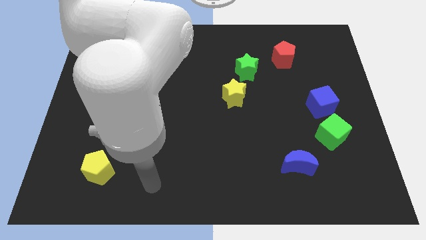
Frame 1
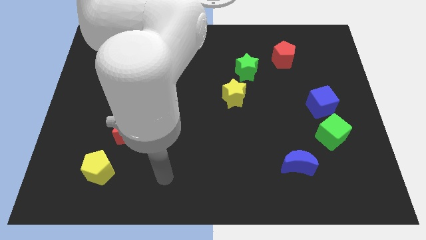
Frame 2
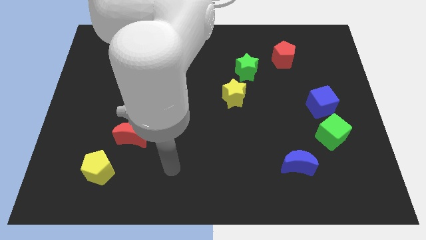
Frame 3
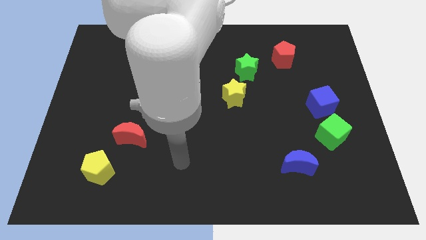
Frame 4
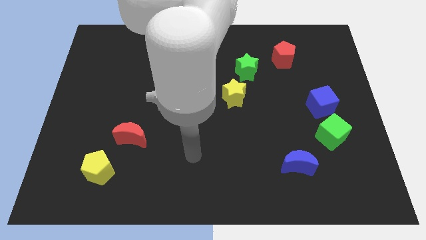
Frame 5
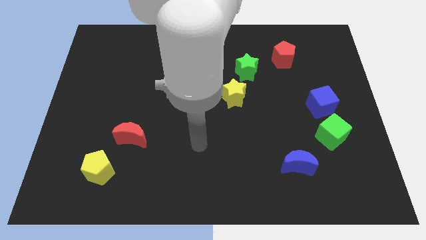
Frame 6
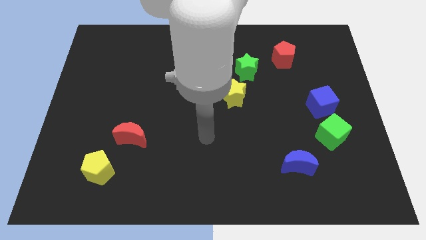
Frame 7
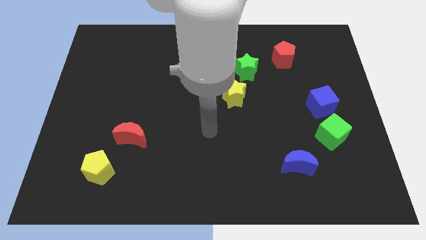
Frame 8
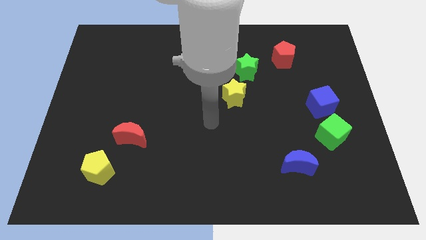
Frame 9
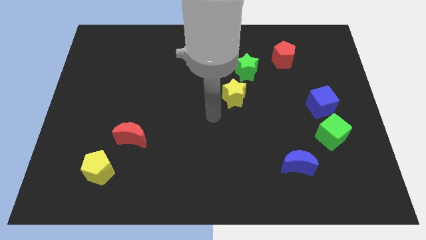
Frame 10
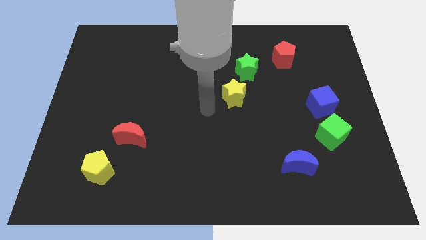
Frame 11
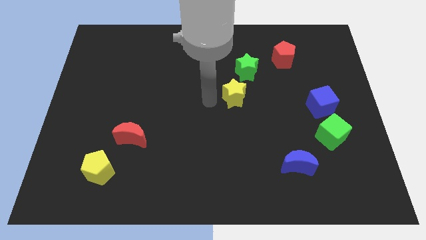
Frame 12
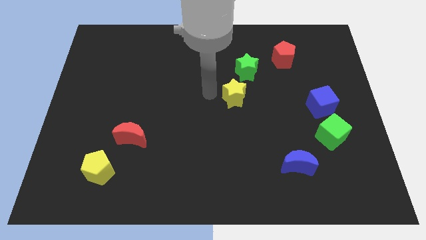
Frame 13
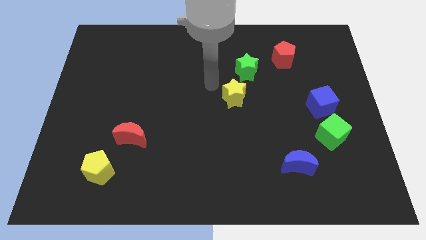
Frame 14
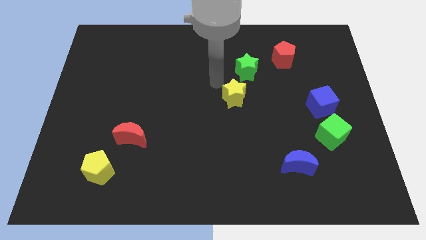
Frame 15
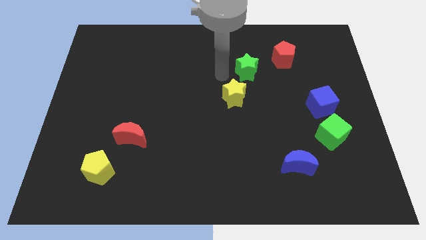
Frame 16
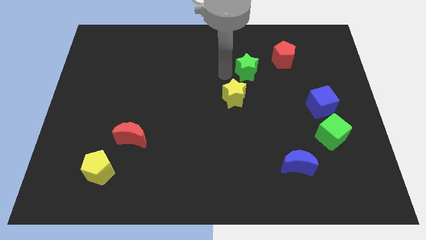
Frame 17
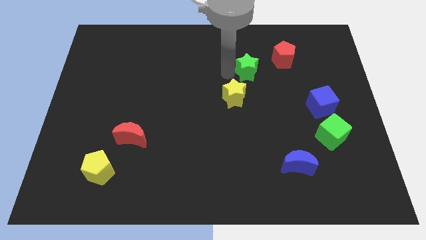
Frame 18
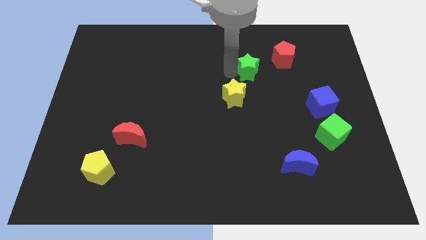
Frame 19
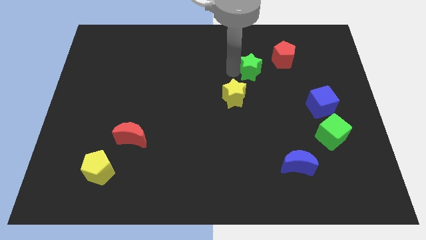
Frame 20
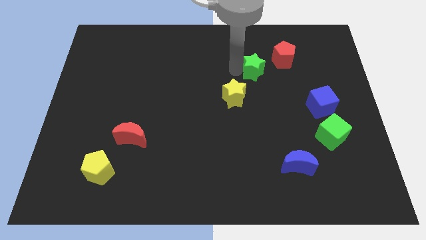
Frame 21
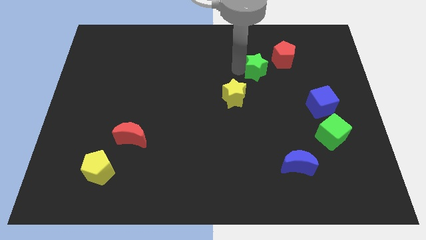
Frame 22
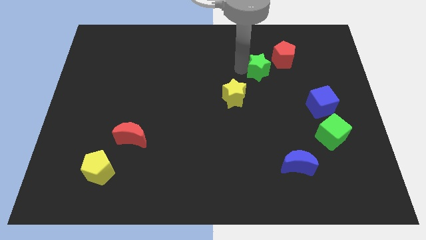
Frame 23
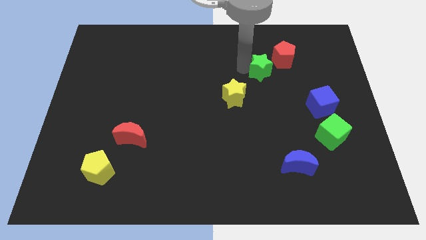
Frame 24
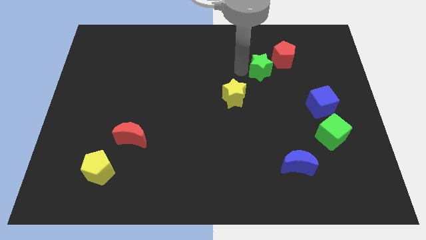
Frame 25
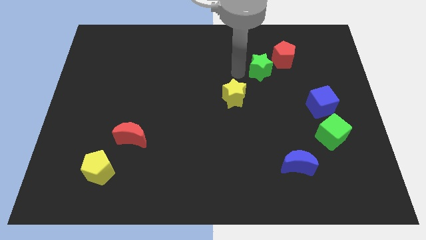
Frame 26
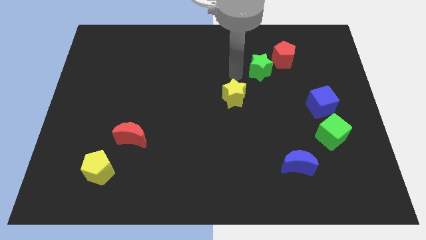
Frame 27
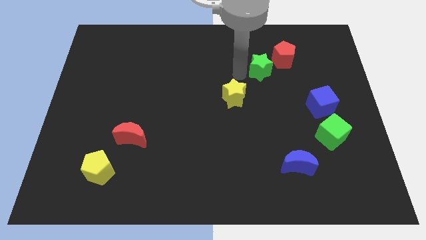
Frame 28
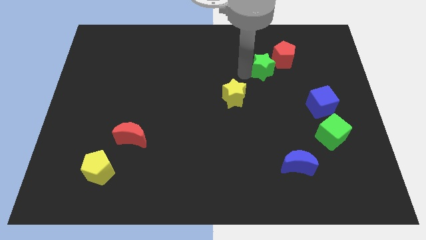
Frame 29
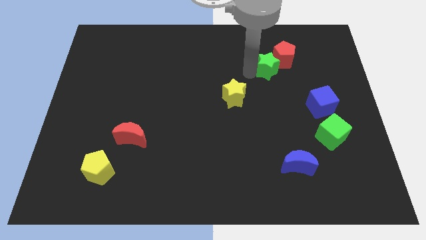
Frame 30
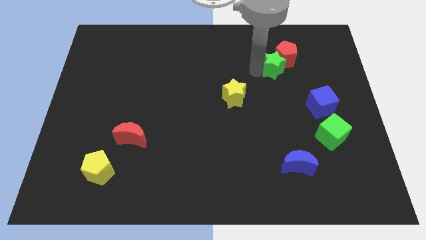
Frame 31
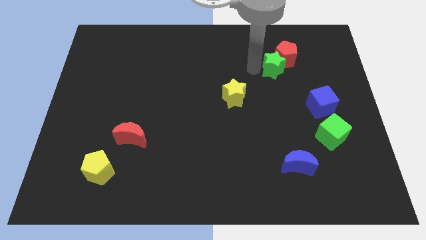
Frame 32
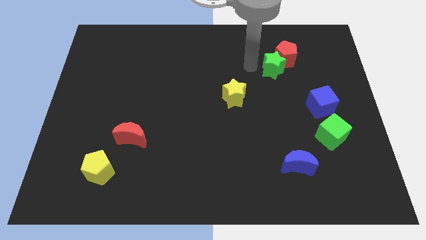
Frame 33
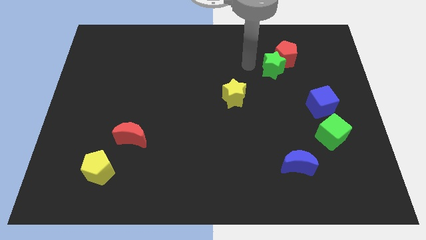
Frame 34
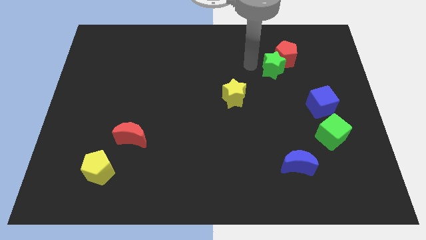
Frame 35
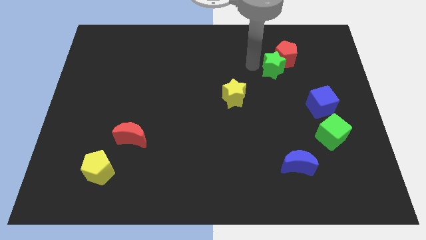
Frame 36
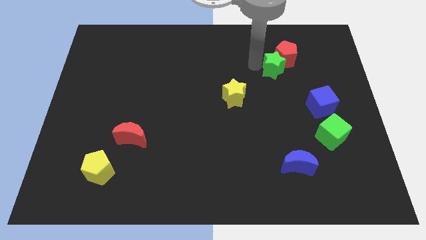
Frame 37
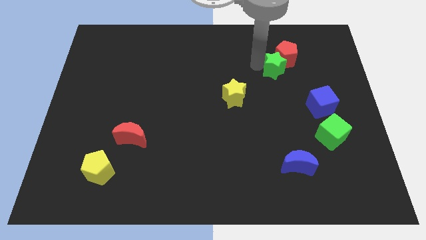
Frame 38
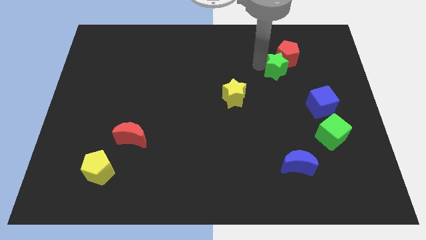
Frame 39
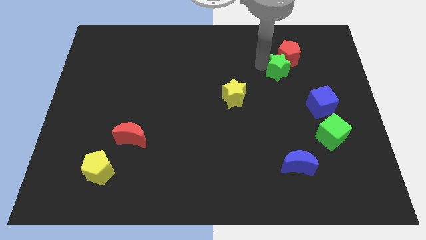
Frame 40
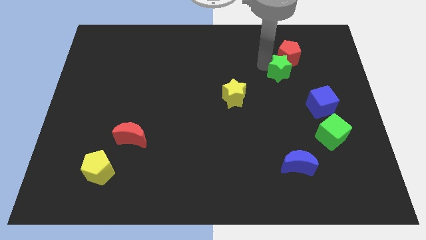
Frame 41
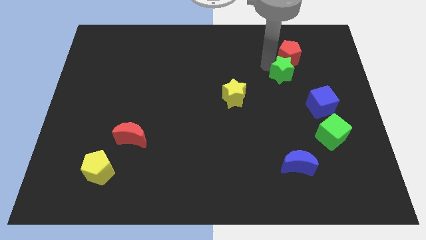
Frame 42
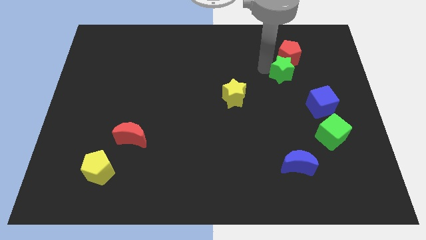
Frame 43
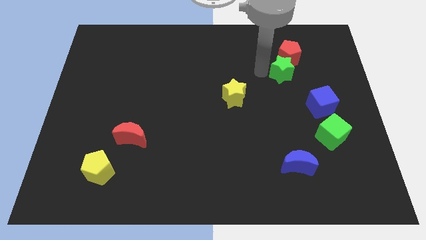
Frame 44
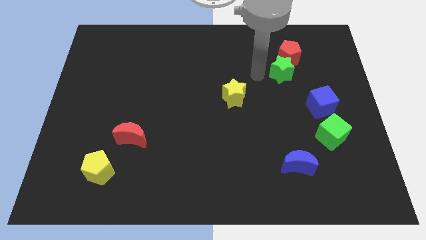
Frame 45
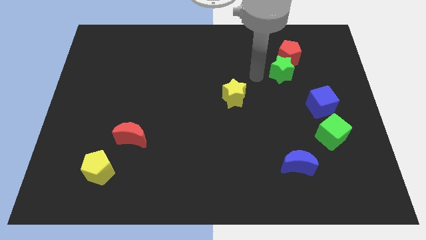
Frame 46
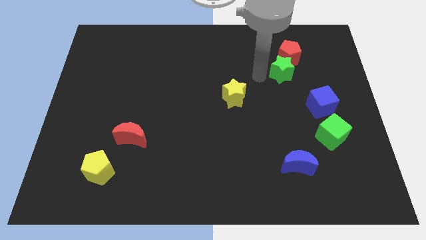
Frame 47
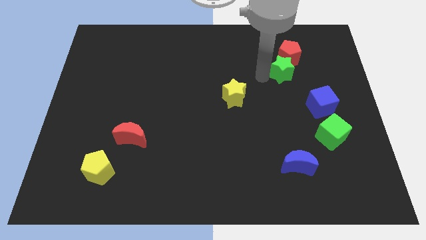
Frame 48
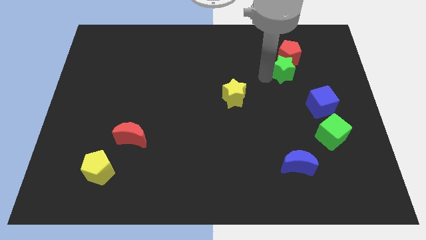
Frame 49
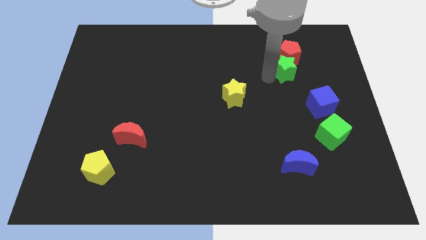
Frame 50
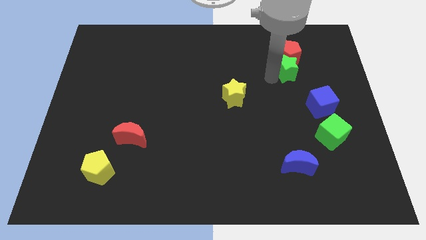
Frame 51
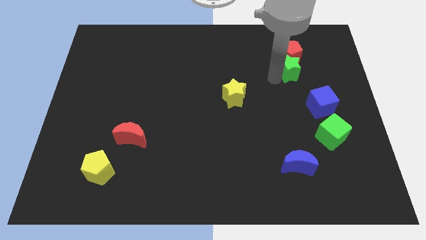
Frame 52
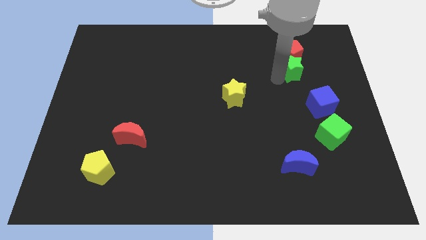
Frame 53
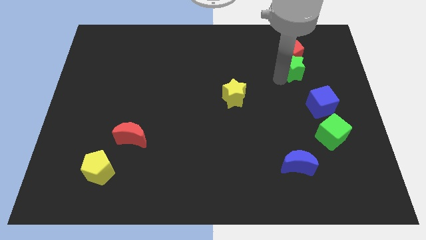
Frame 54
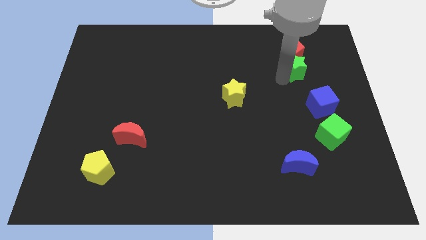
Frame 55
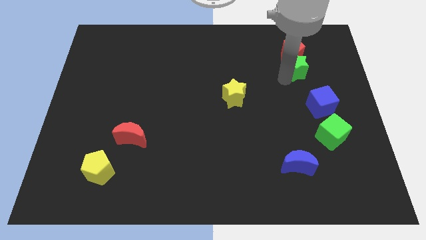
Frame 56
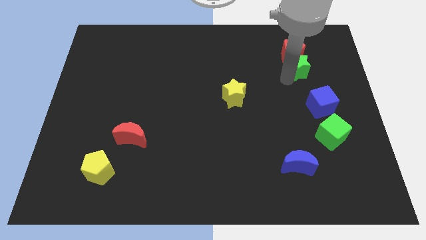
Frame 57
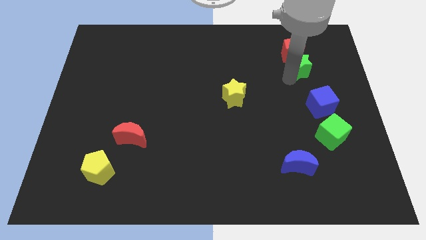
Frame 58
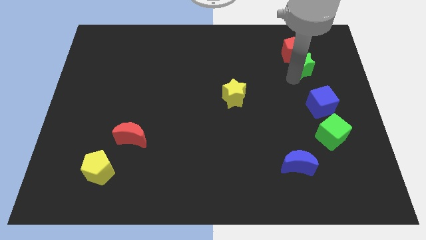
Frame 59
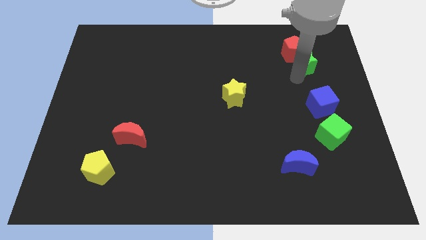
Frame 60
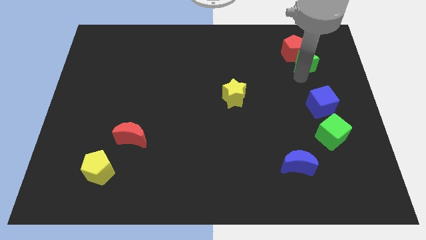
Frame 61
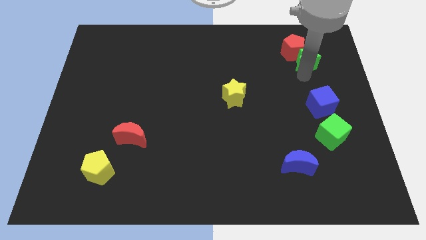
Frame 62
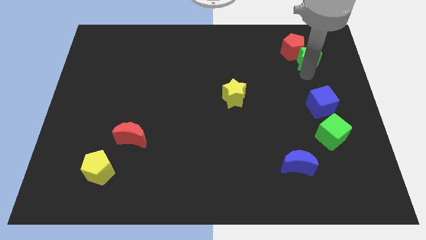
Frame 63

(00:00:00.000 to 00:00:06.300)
move the green star to the right of the red pentagon

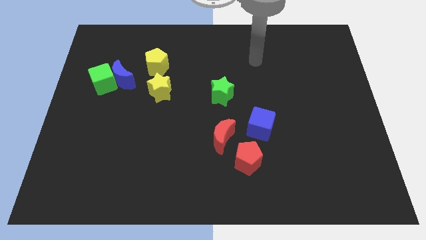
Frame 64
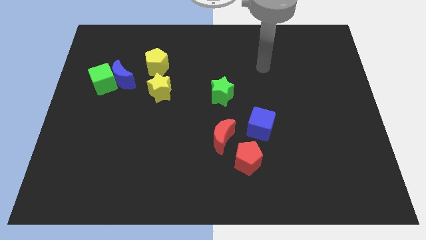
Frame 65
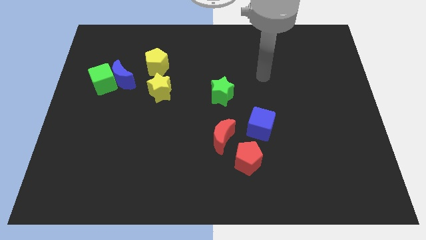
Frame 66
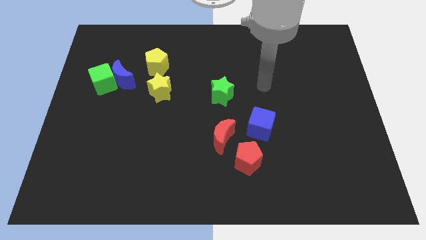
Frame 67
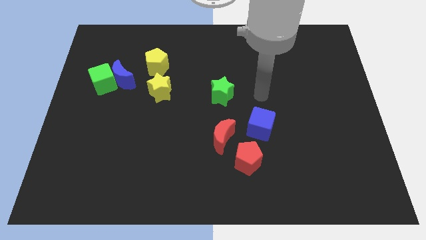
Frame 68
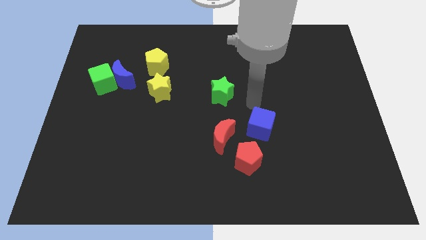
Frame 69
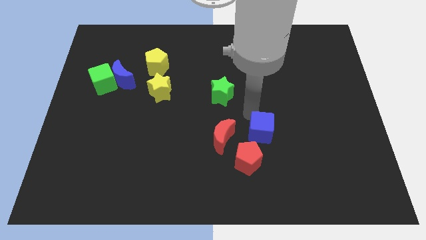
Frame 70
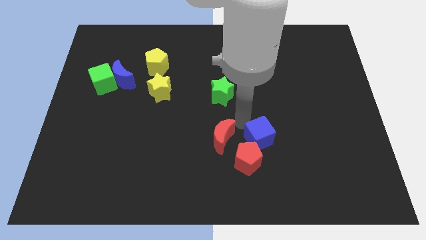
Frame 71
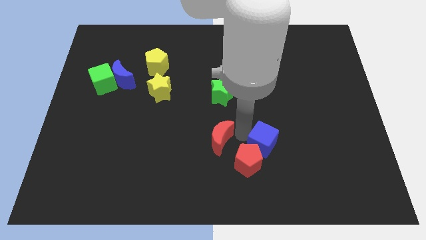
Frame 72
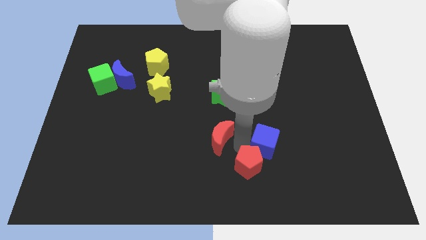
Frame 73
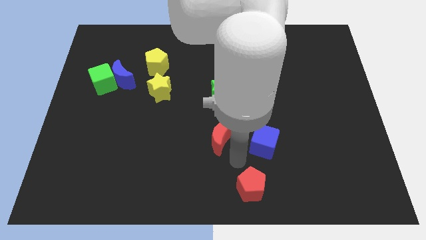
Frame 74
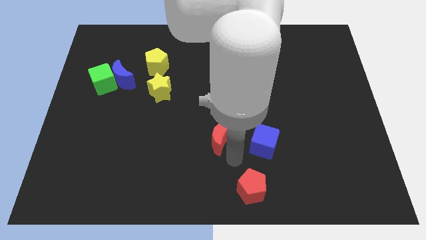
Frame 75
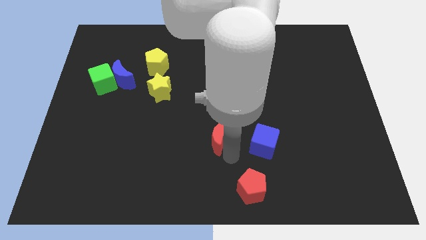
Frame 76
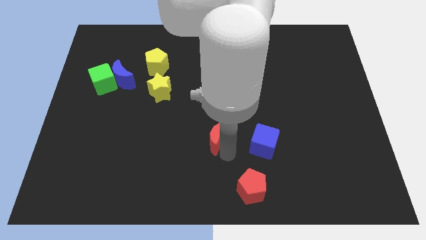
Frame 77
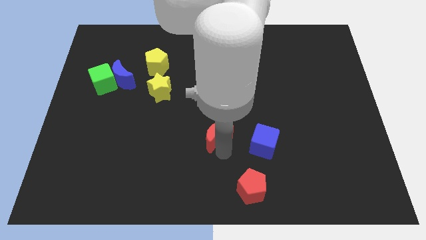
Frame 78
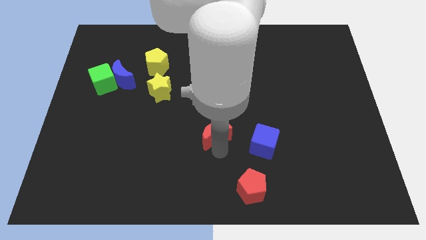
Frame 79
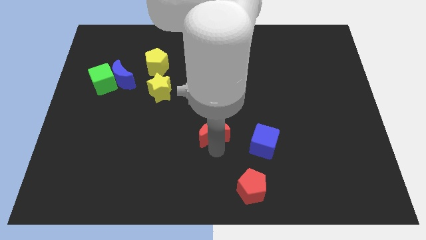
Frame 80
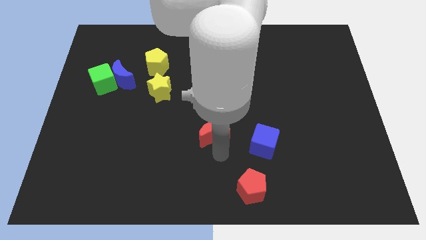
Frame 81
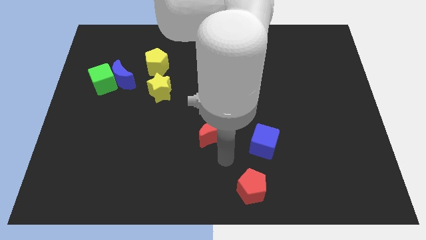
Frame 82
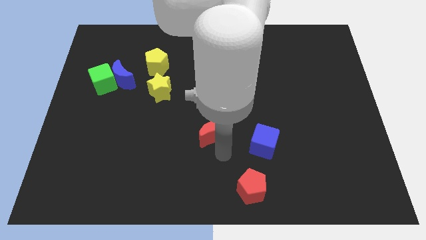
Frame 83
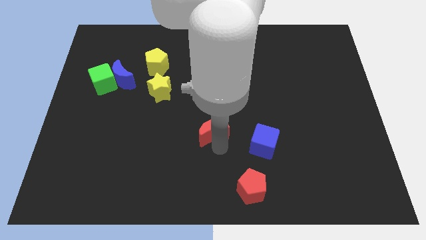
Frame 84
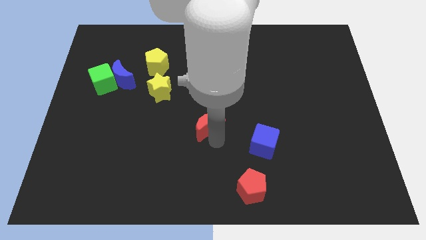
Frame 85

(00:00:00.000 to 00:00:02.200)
push the red moon to the bottom left of the green star
